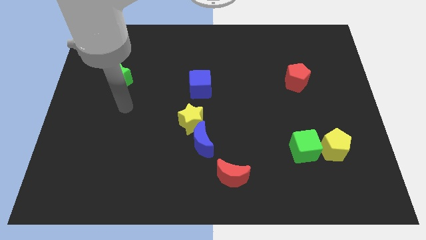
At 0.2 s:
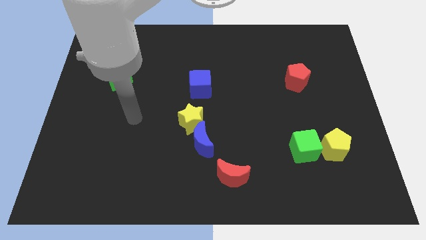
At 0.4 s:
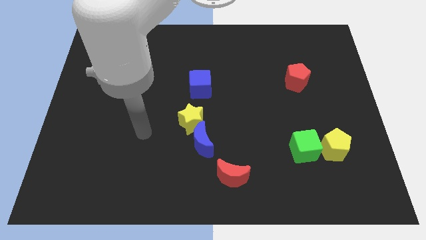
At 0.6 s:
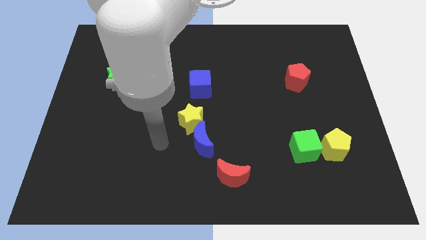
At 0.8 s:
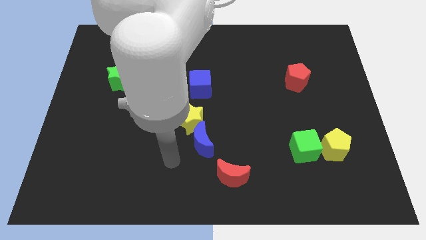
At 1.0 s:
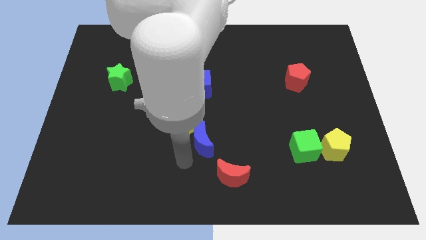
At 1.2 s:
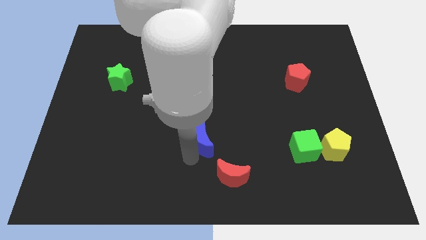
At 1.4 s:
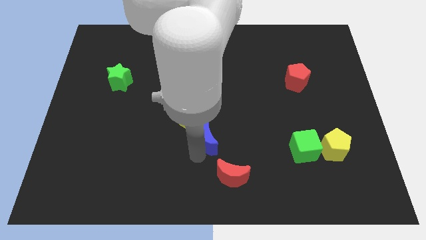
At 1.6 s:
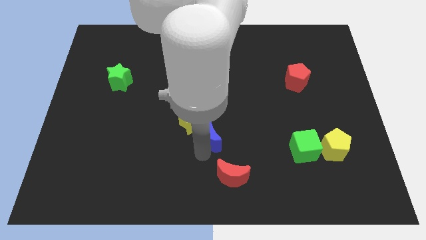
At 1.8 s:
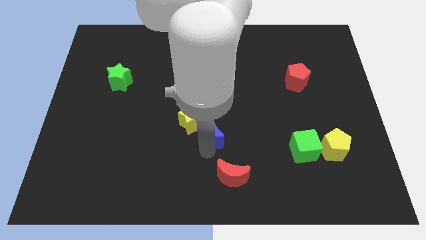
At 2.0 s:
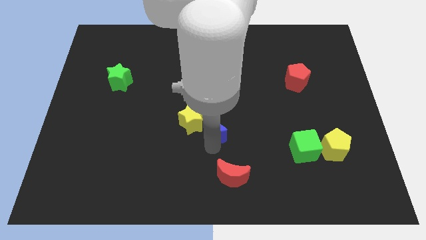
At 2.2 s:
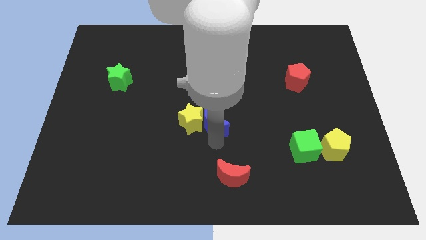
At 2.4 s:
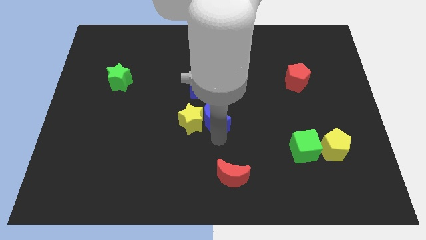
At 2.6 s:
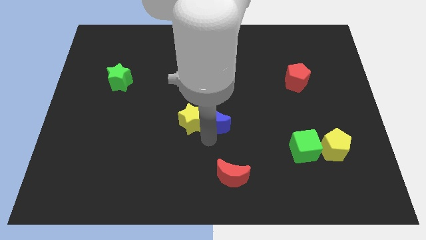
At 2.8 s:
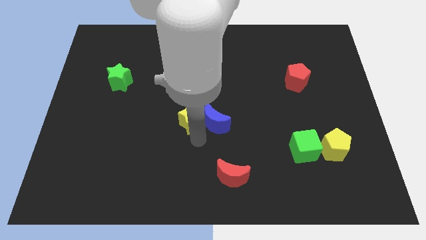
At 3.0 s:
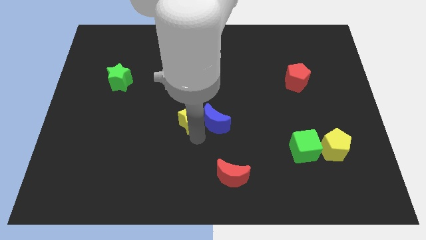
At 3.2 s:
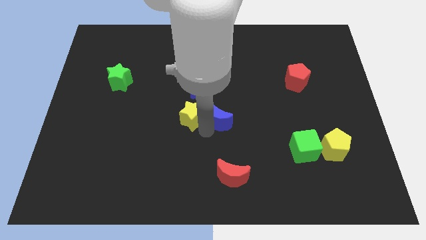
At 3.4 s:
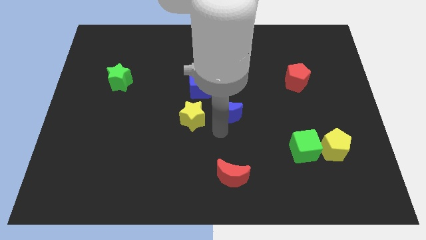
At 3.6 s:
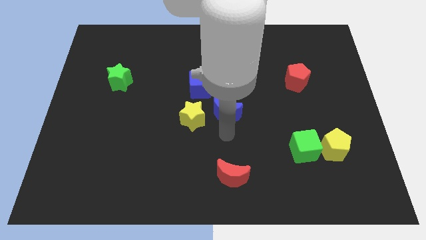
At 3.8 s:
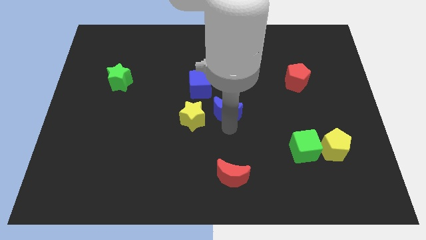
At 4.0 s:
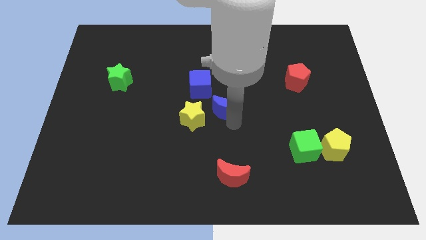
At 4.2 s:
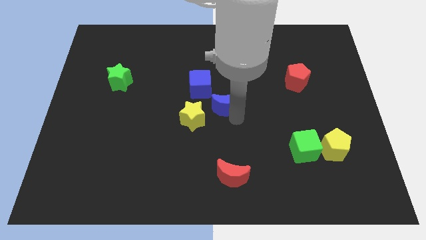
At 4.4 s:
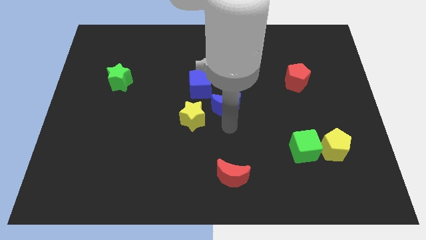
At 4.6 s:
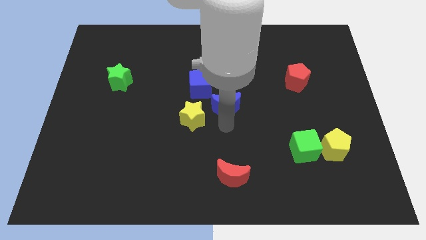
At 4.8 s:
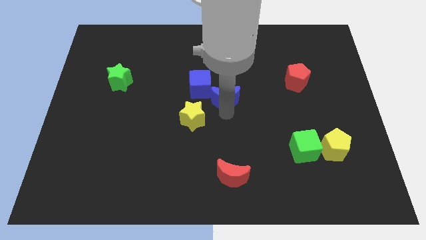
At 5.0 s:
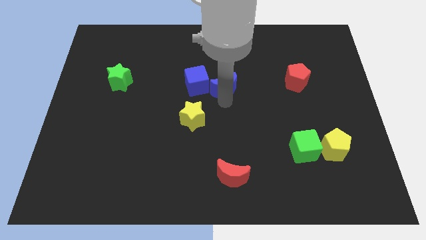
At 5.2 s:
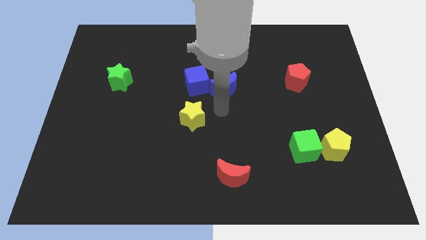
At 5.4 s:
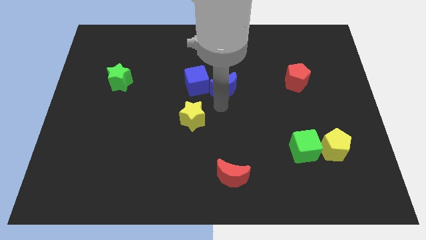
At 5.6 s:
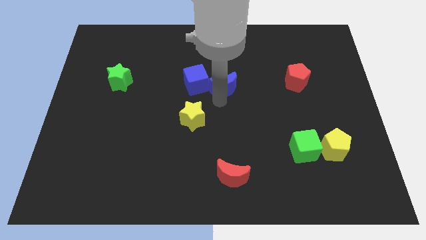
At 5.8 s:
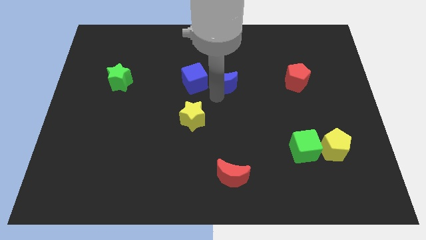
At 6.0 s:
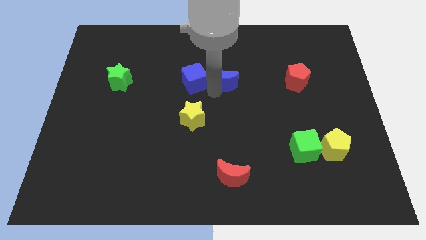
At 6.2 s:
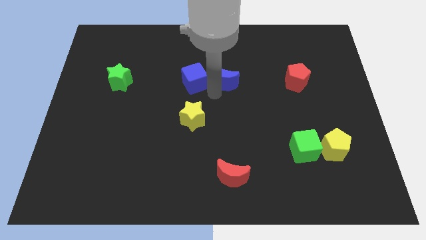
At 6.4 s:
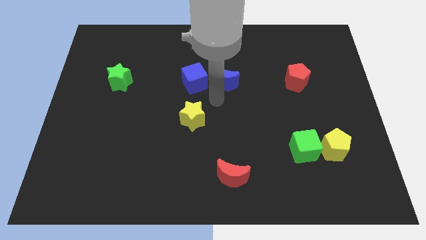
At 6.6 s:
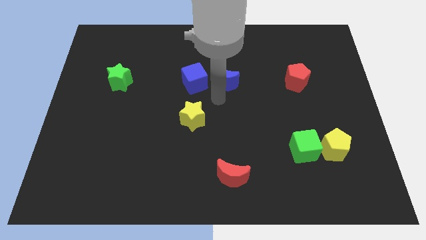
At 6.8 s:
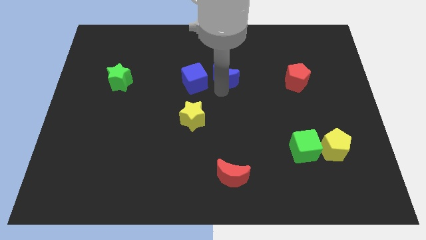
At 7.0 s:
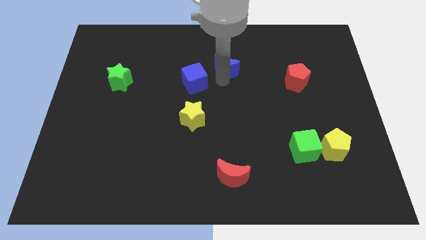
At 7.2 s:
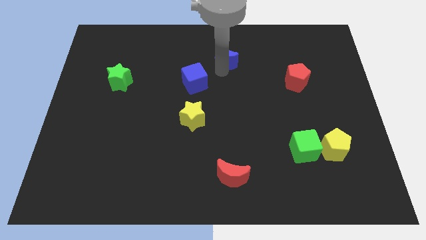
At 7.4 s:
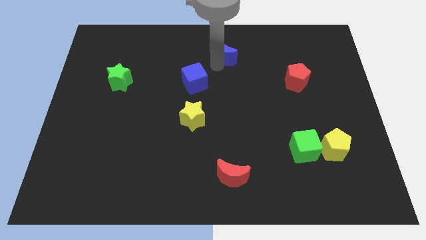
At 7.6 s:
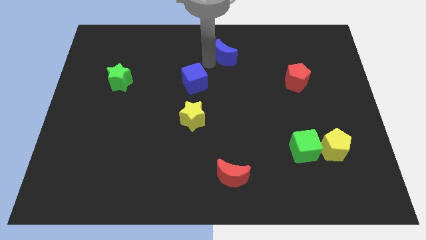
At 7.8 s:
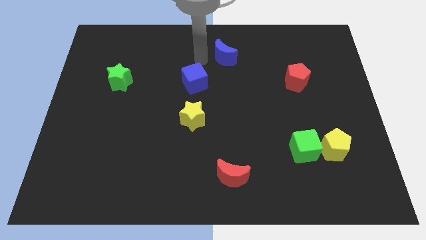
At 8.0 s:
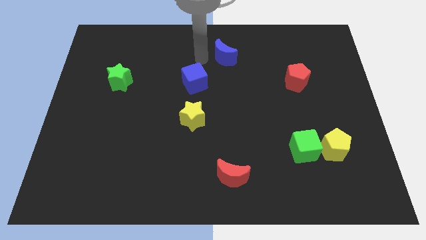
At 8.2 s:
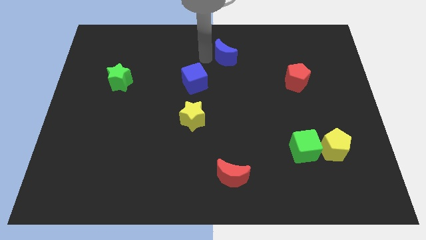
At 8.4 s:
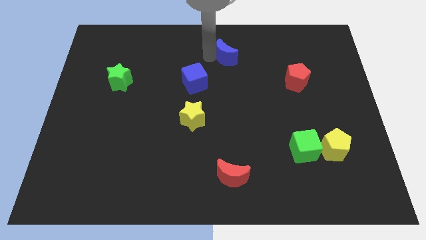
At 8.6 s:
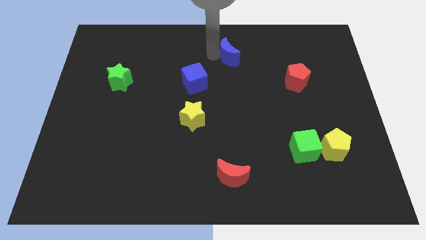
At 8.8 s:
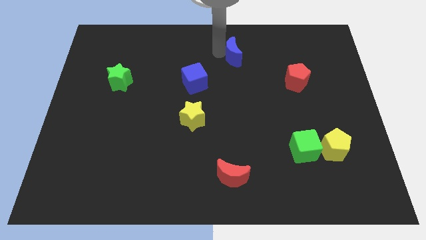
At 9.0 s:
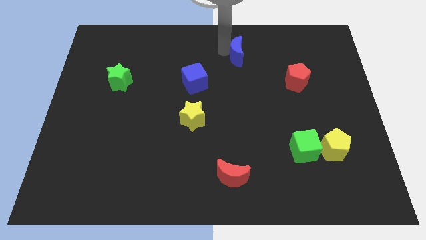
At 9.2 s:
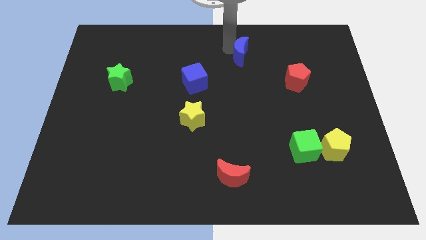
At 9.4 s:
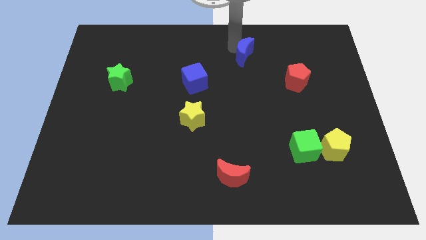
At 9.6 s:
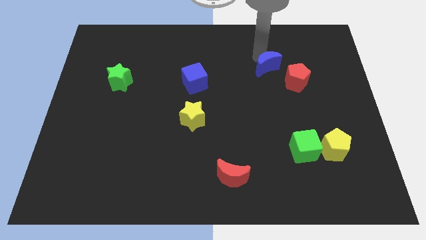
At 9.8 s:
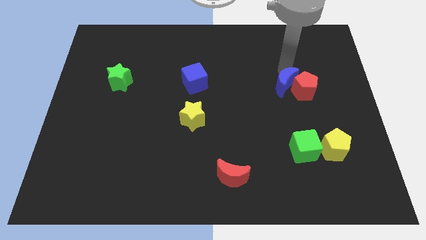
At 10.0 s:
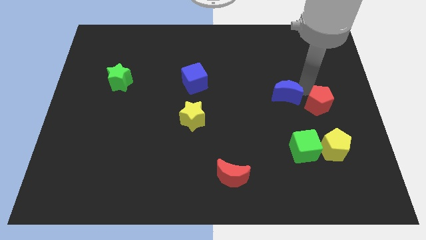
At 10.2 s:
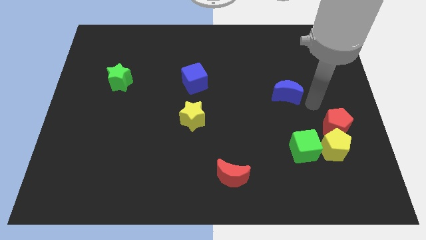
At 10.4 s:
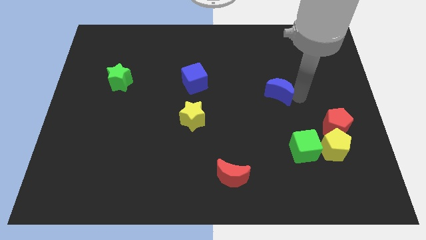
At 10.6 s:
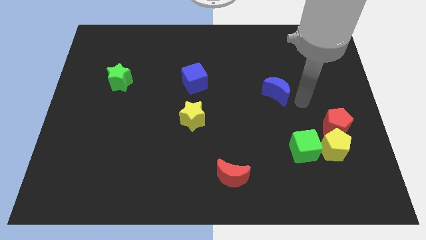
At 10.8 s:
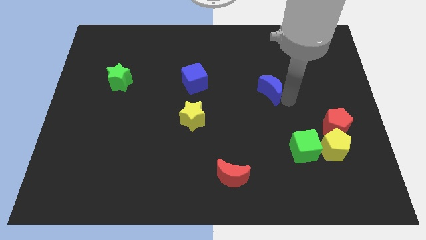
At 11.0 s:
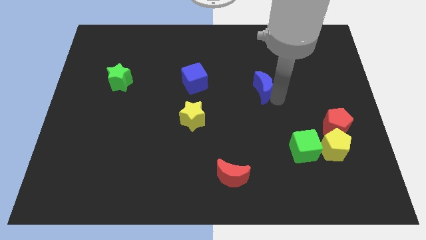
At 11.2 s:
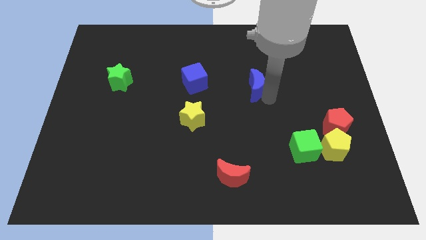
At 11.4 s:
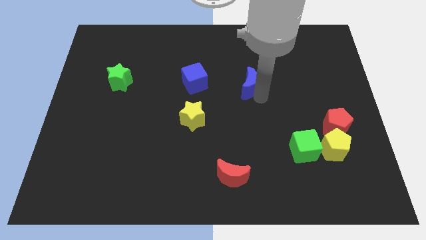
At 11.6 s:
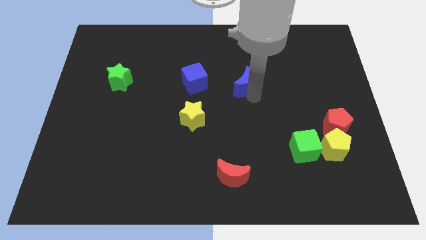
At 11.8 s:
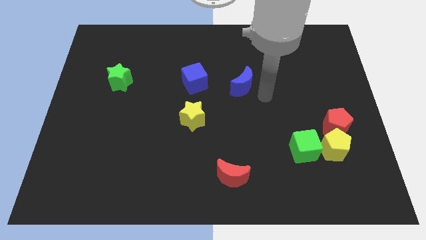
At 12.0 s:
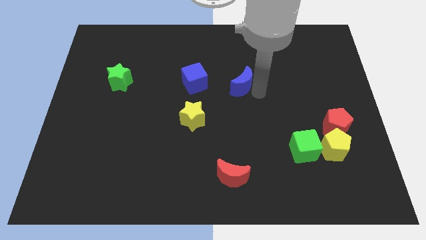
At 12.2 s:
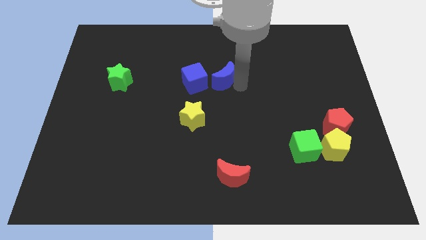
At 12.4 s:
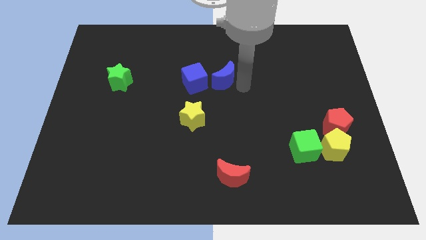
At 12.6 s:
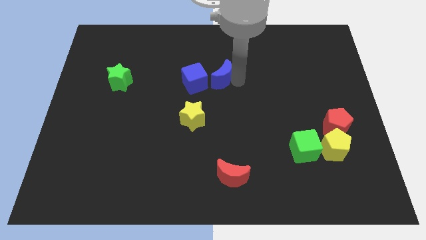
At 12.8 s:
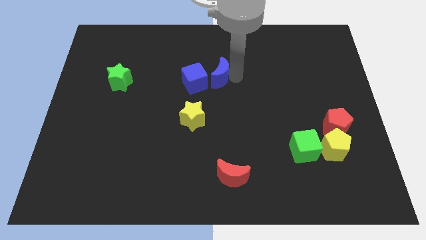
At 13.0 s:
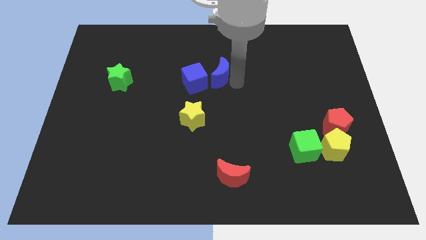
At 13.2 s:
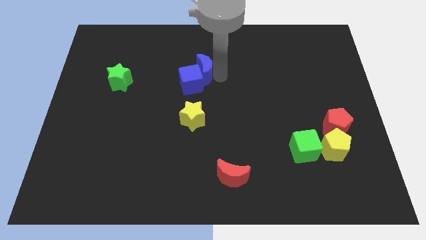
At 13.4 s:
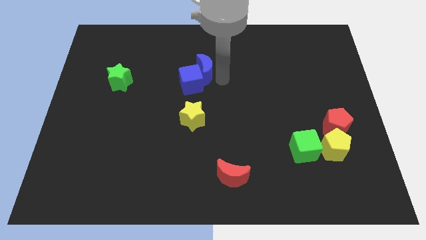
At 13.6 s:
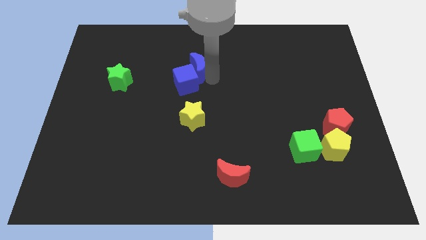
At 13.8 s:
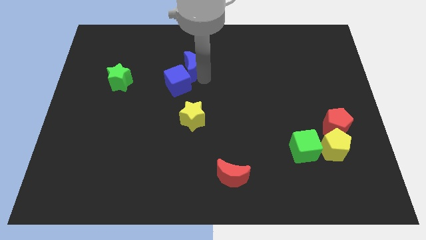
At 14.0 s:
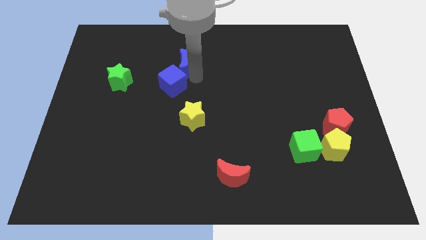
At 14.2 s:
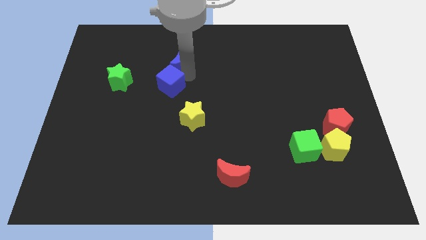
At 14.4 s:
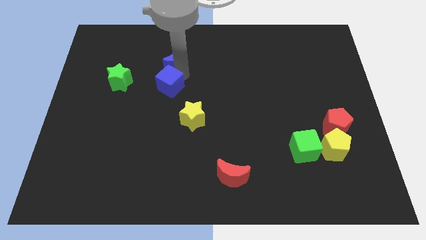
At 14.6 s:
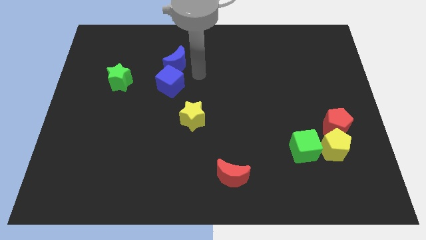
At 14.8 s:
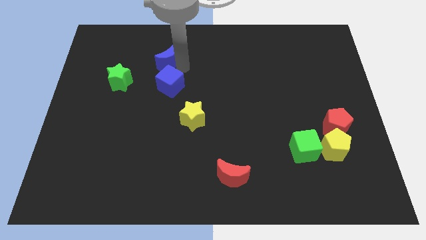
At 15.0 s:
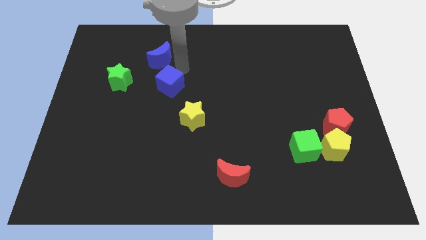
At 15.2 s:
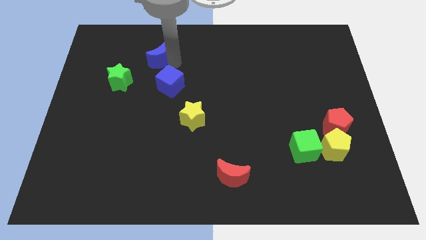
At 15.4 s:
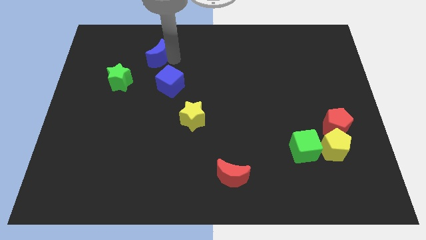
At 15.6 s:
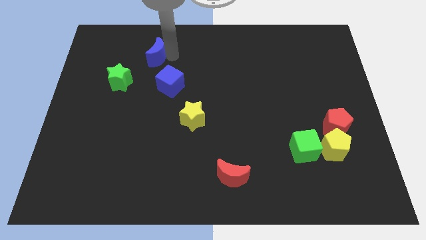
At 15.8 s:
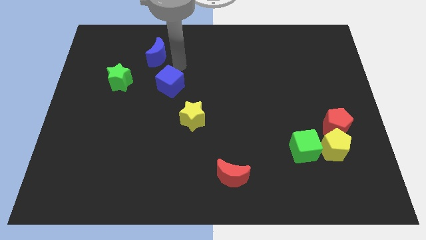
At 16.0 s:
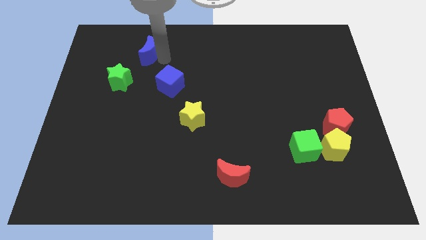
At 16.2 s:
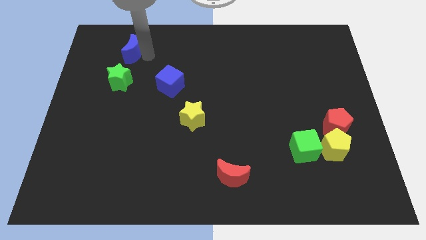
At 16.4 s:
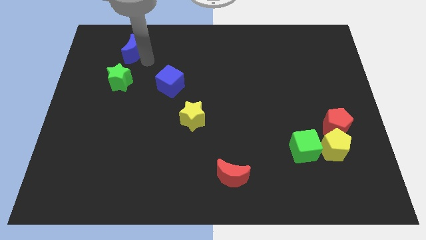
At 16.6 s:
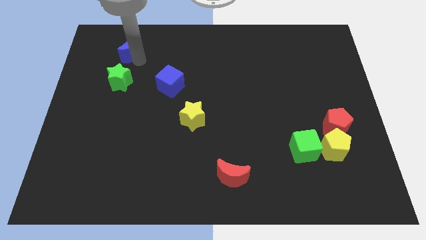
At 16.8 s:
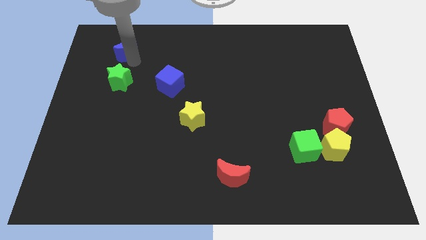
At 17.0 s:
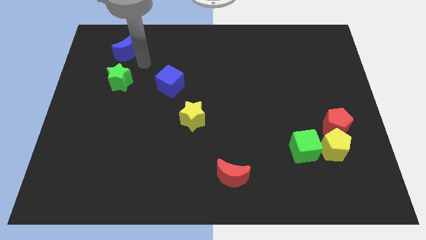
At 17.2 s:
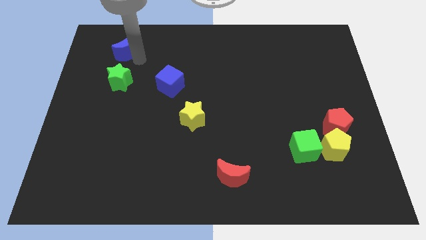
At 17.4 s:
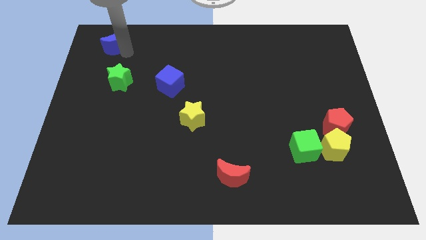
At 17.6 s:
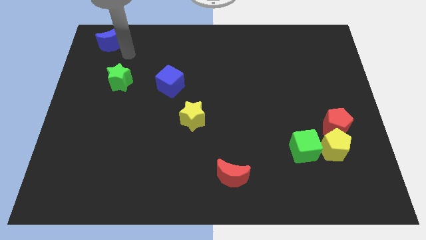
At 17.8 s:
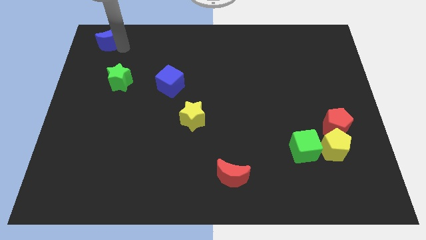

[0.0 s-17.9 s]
move the blue moon to the top left of the board
